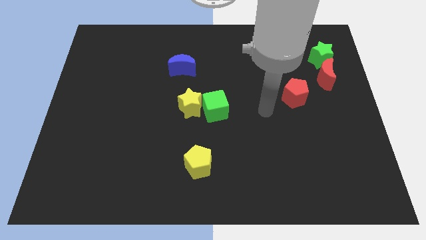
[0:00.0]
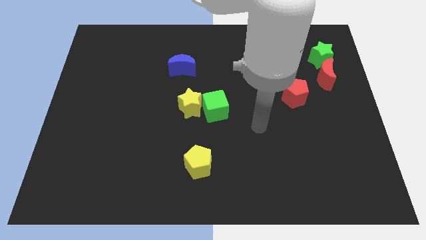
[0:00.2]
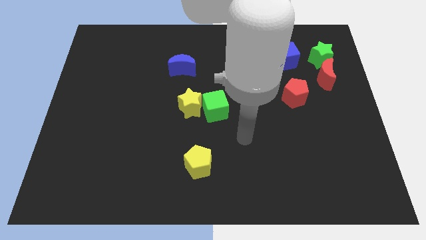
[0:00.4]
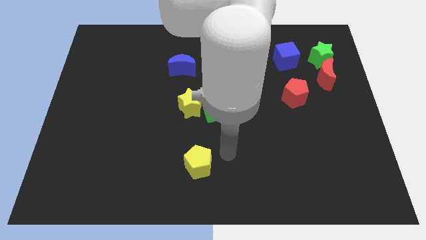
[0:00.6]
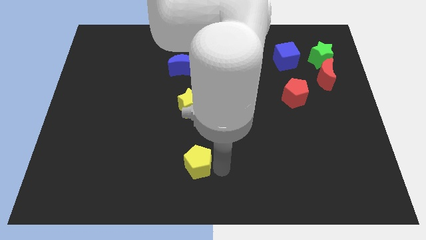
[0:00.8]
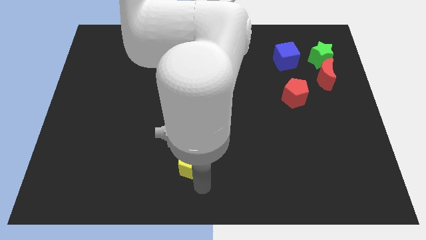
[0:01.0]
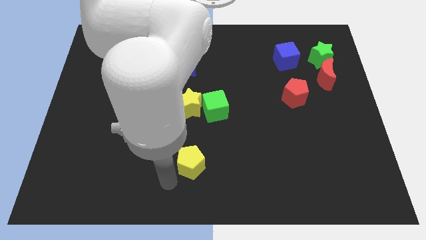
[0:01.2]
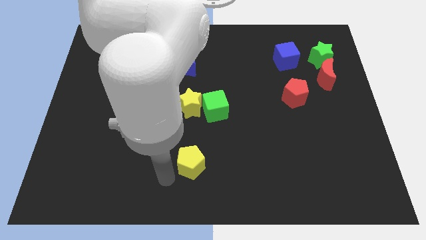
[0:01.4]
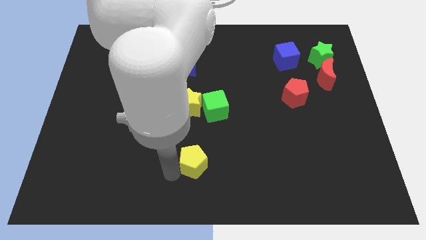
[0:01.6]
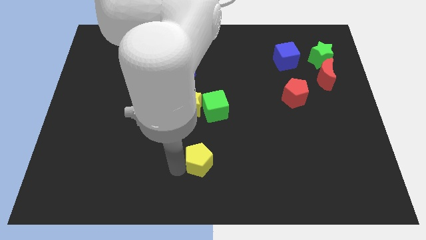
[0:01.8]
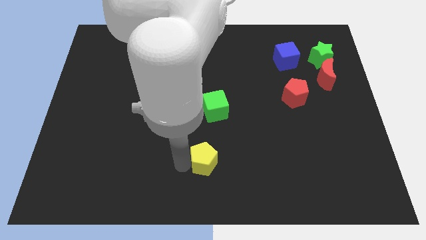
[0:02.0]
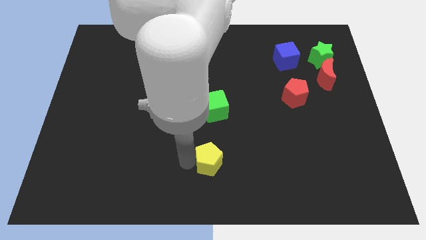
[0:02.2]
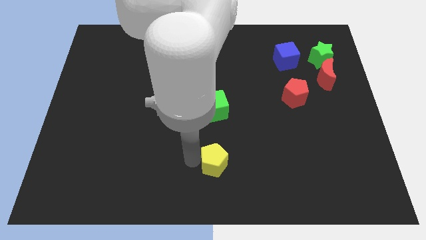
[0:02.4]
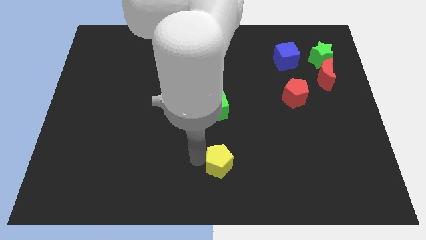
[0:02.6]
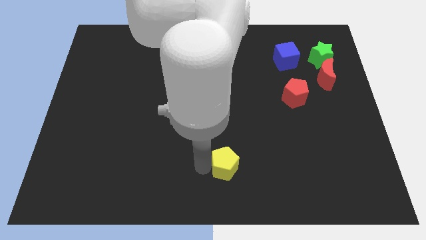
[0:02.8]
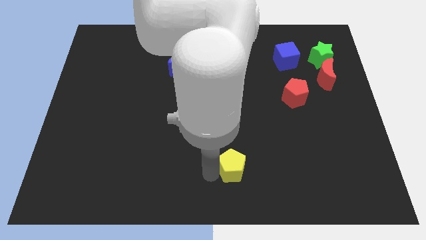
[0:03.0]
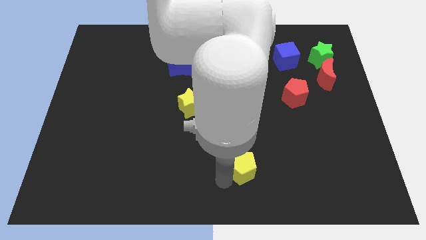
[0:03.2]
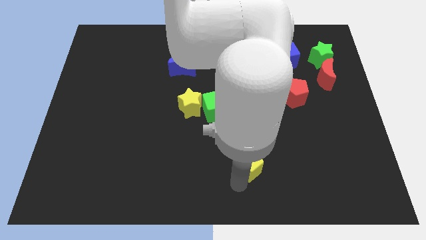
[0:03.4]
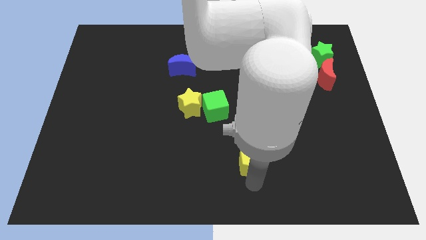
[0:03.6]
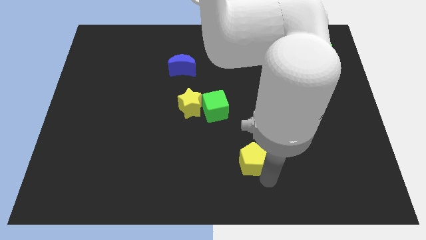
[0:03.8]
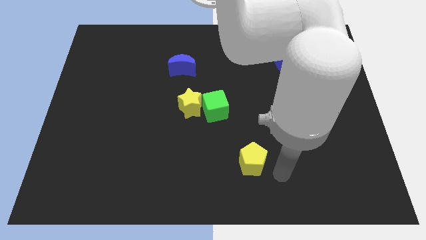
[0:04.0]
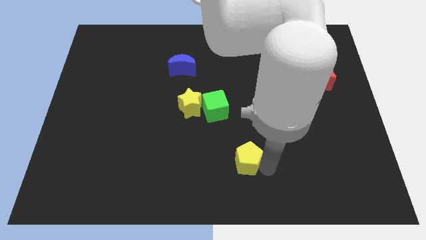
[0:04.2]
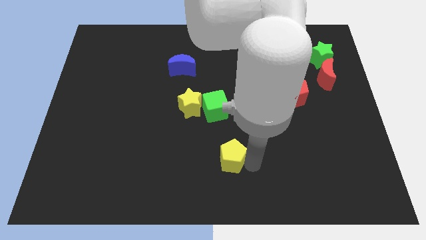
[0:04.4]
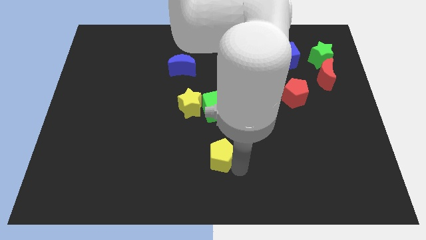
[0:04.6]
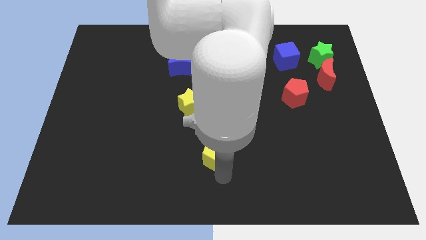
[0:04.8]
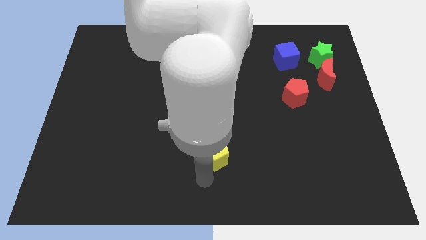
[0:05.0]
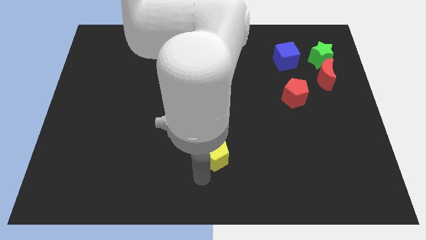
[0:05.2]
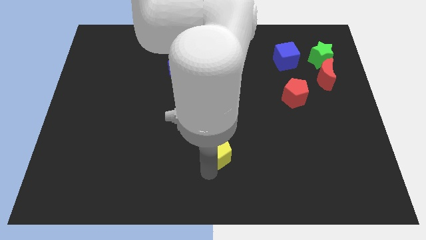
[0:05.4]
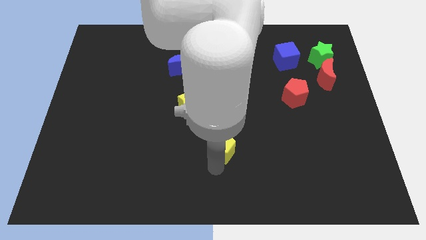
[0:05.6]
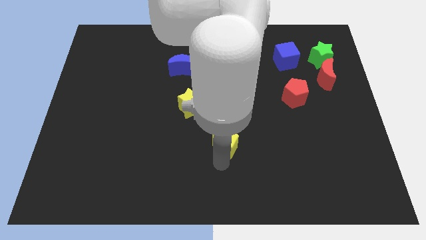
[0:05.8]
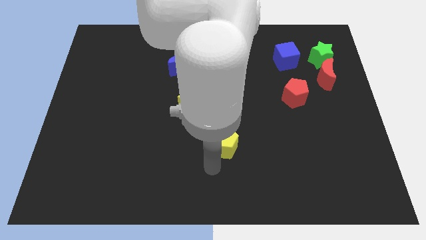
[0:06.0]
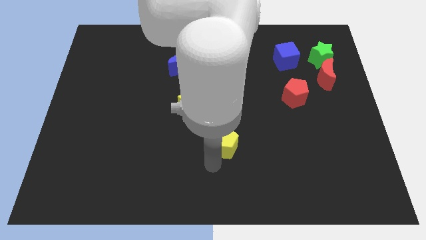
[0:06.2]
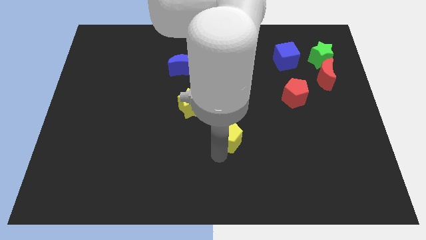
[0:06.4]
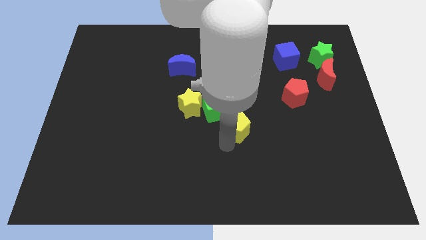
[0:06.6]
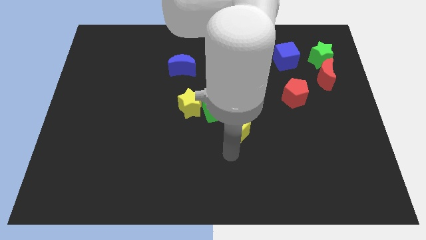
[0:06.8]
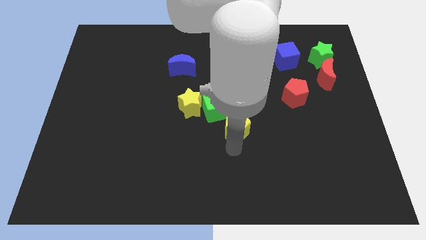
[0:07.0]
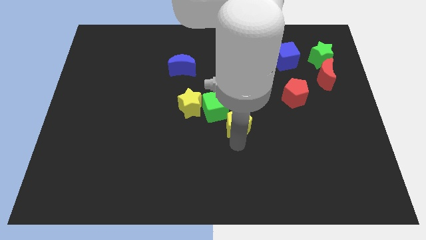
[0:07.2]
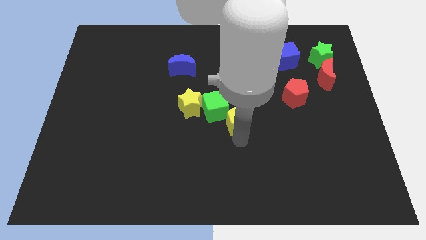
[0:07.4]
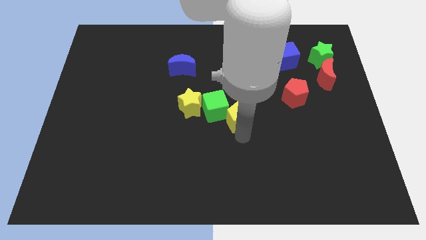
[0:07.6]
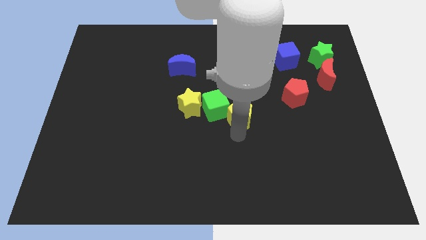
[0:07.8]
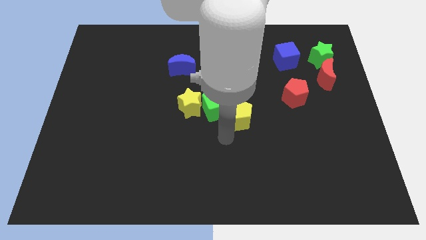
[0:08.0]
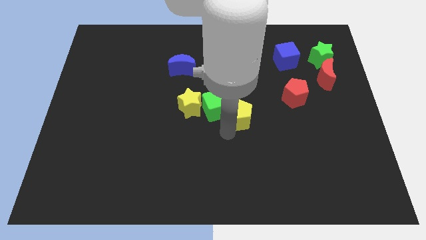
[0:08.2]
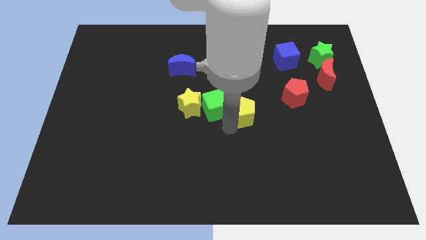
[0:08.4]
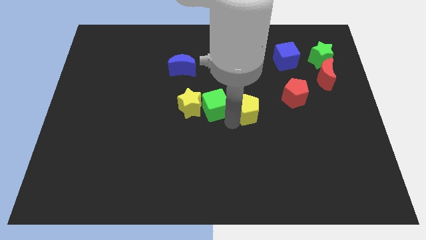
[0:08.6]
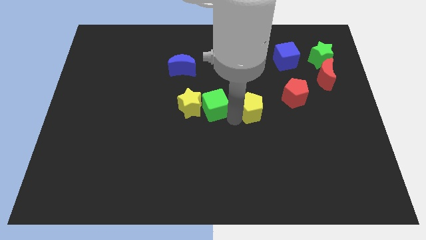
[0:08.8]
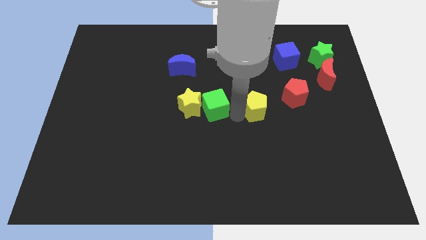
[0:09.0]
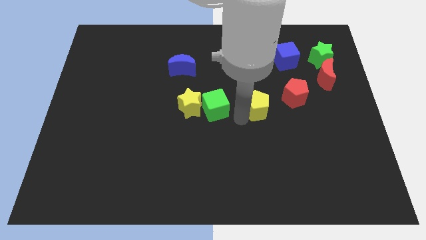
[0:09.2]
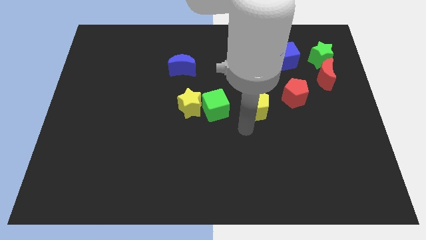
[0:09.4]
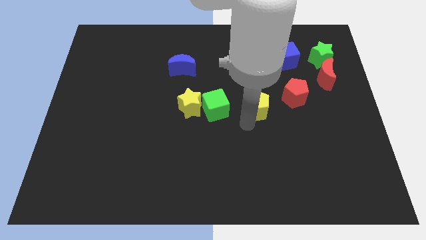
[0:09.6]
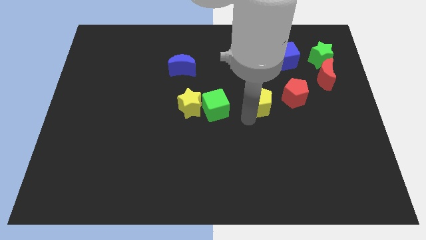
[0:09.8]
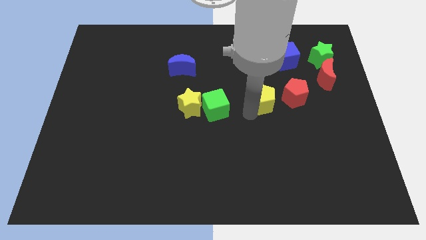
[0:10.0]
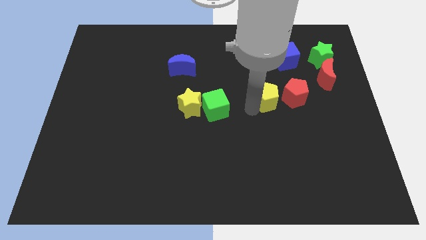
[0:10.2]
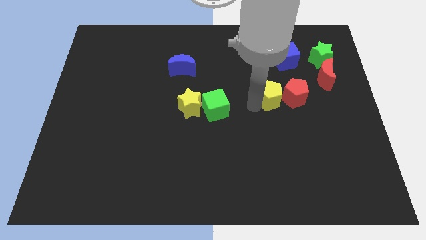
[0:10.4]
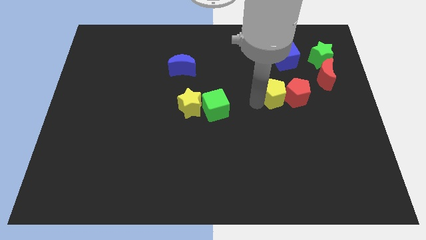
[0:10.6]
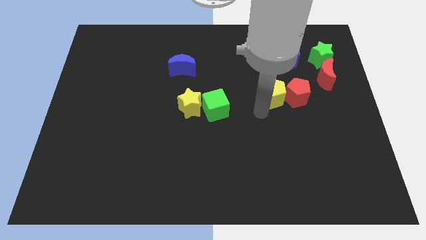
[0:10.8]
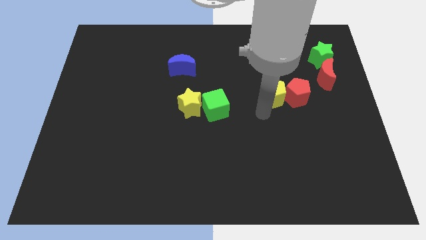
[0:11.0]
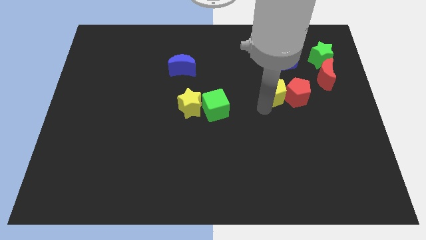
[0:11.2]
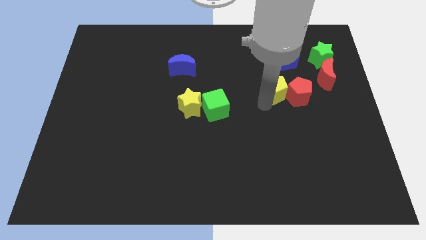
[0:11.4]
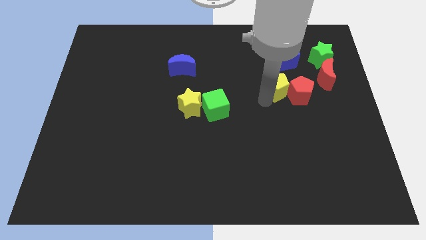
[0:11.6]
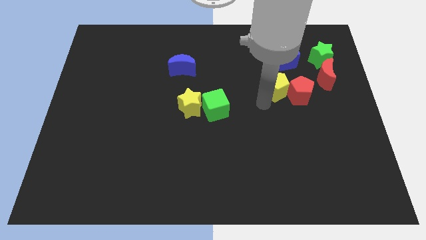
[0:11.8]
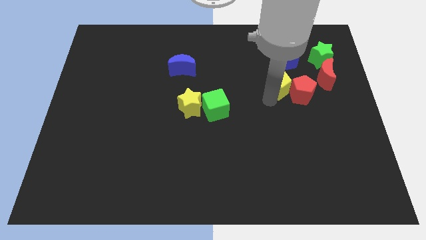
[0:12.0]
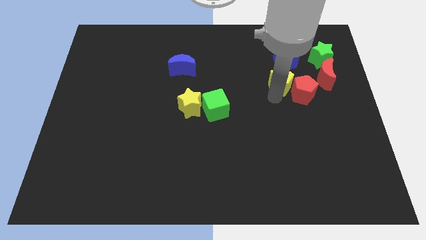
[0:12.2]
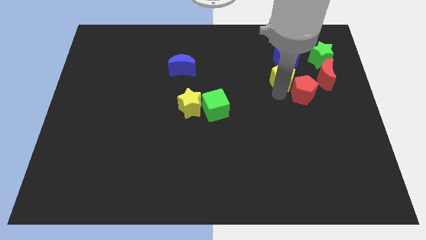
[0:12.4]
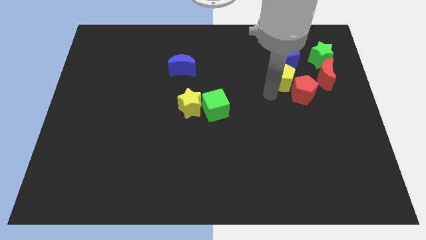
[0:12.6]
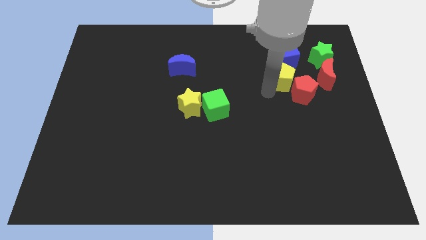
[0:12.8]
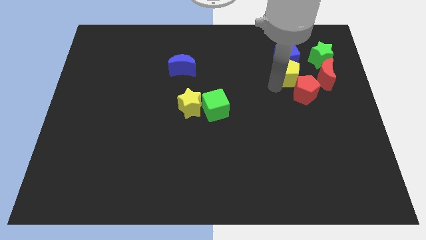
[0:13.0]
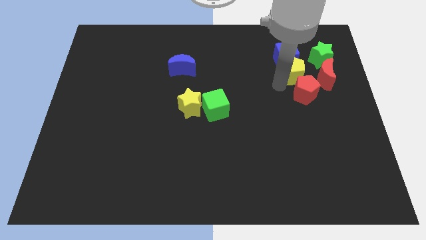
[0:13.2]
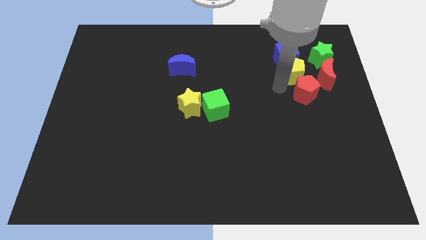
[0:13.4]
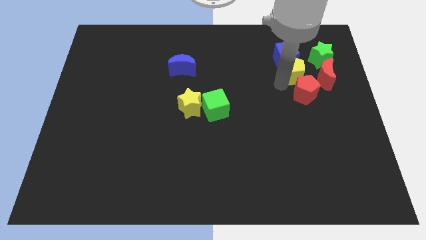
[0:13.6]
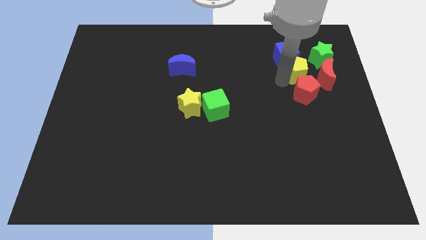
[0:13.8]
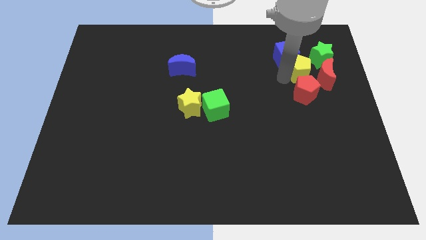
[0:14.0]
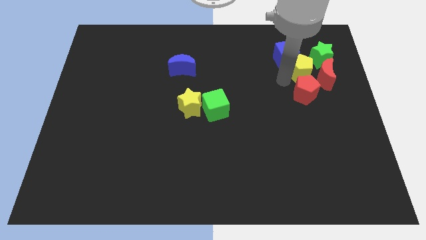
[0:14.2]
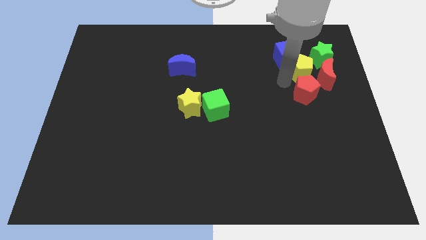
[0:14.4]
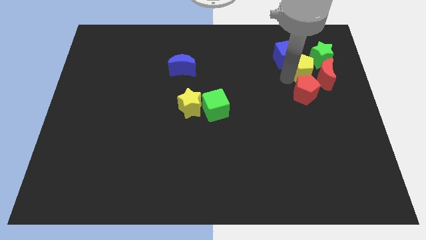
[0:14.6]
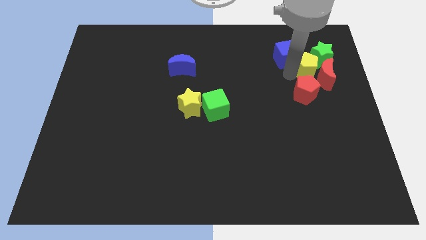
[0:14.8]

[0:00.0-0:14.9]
push the yellow pentagon towards the green star
